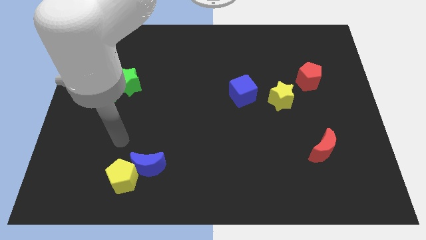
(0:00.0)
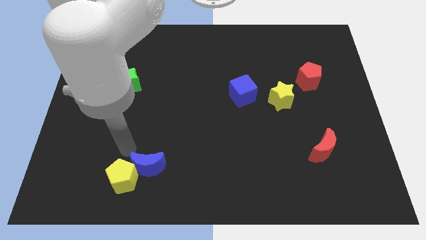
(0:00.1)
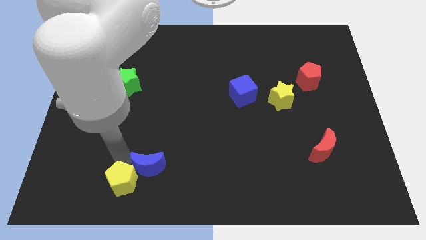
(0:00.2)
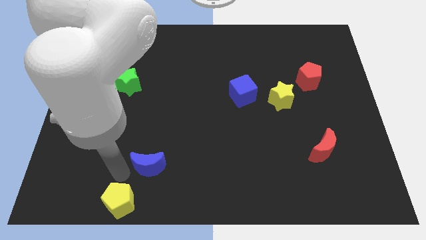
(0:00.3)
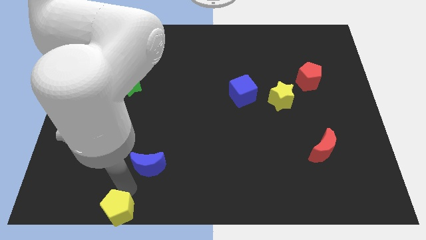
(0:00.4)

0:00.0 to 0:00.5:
pull the blue moon apart from the yellow pentagon

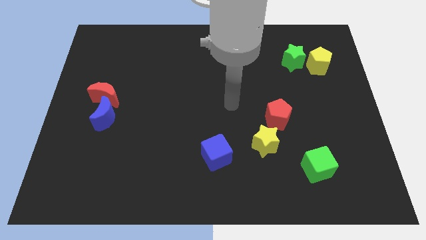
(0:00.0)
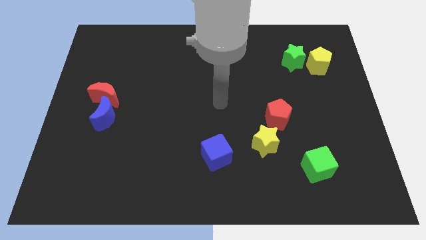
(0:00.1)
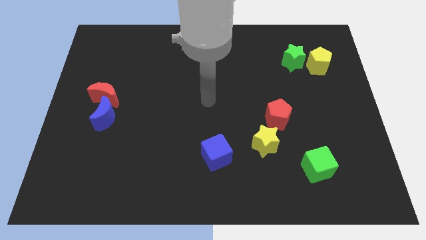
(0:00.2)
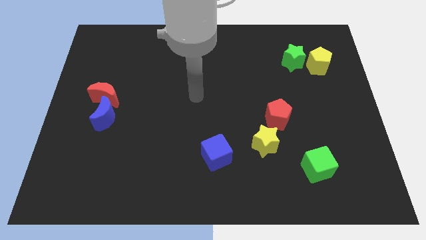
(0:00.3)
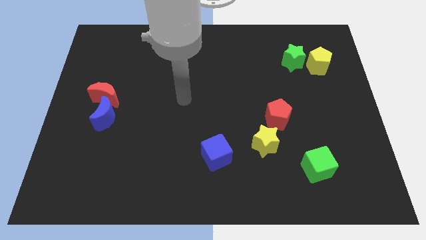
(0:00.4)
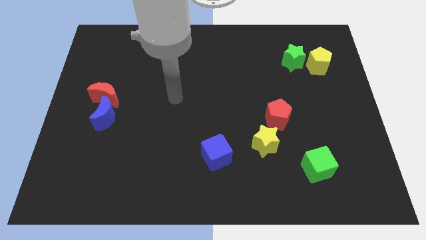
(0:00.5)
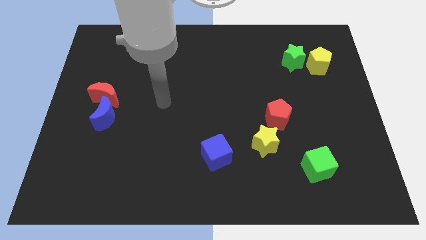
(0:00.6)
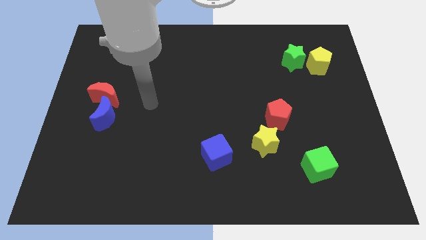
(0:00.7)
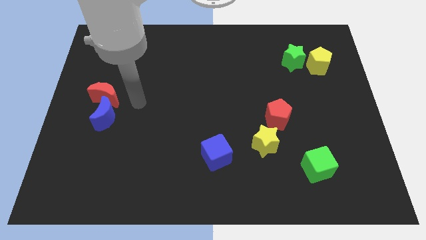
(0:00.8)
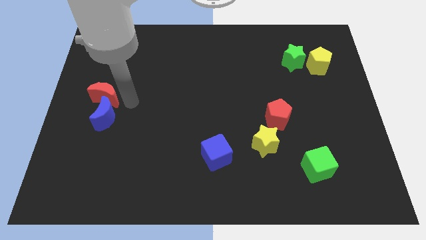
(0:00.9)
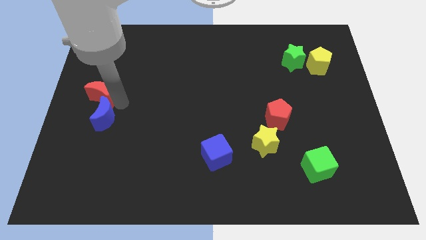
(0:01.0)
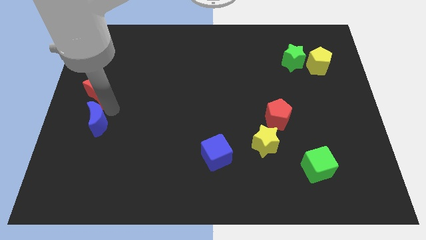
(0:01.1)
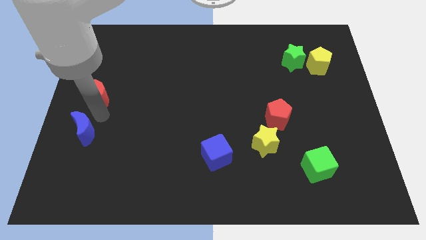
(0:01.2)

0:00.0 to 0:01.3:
pull the red moon apart from the blue moon

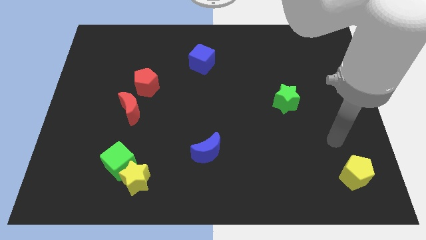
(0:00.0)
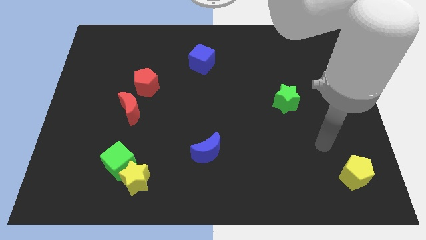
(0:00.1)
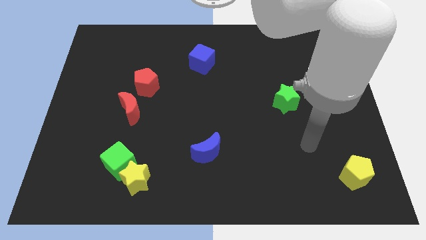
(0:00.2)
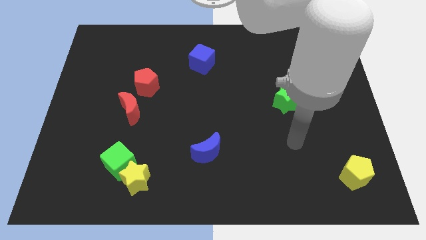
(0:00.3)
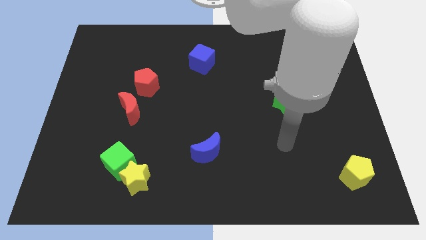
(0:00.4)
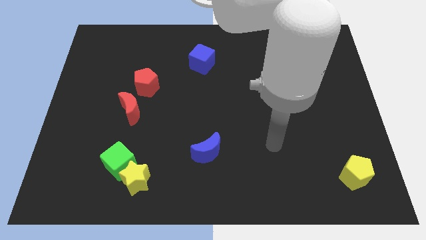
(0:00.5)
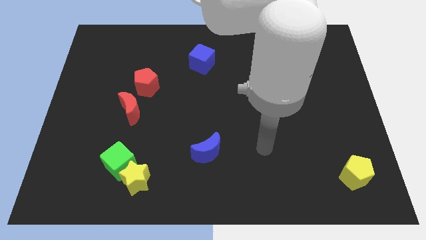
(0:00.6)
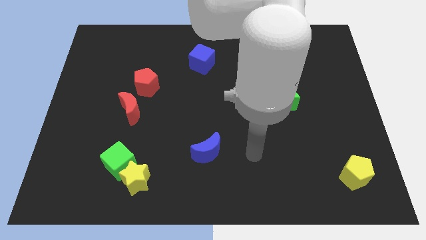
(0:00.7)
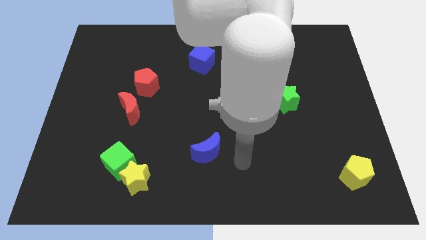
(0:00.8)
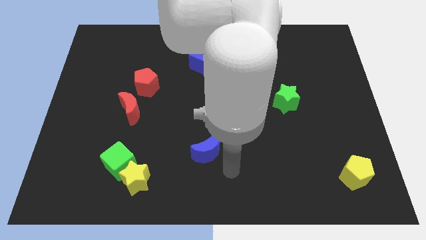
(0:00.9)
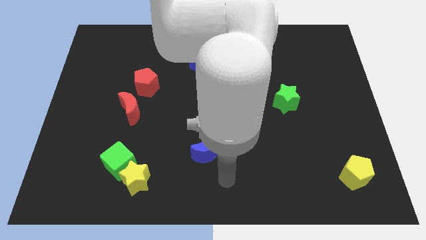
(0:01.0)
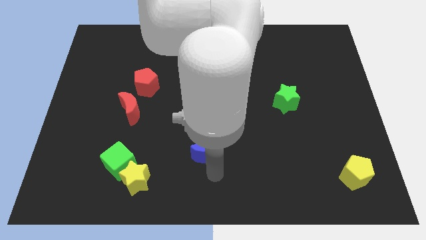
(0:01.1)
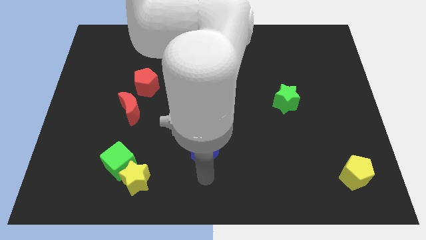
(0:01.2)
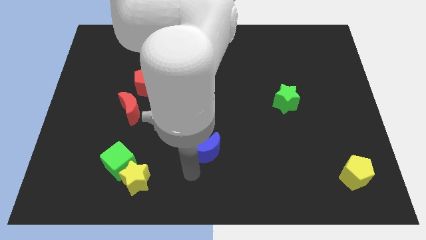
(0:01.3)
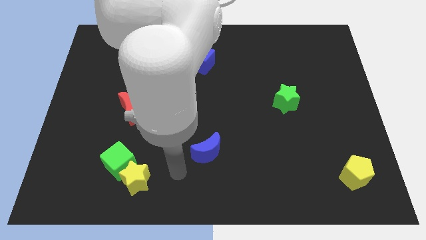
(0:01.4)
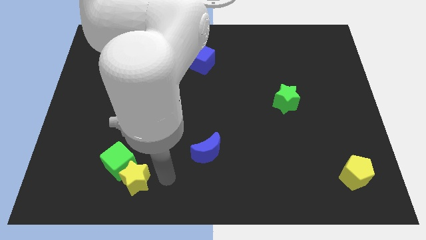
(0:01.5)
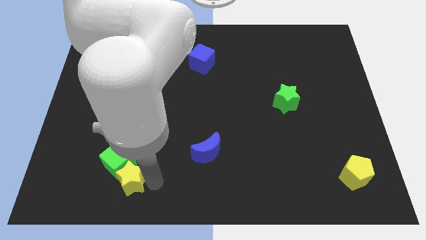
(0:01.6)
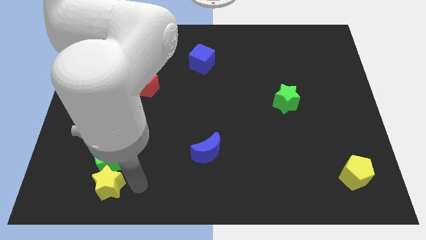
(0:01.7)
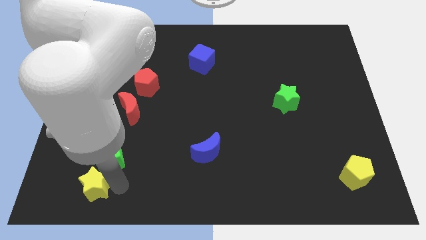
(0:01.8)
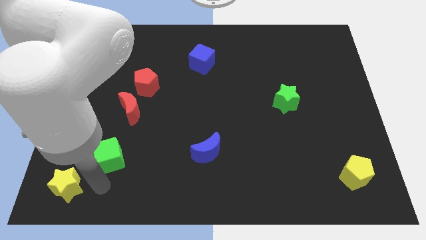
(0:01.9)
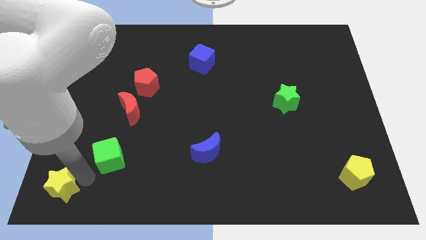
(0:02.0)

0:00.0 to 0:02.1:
move the green cube away from the yellow star

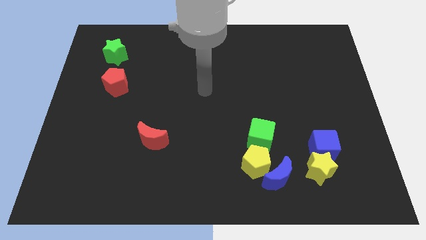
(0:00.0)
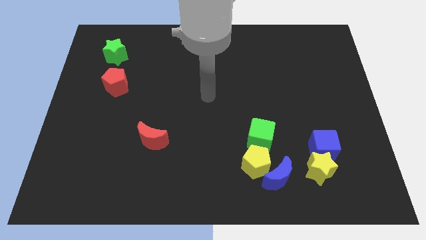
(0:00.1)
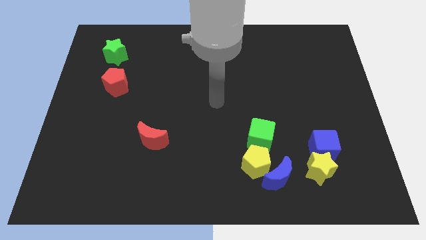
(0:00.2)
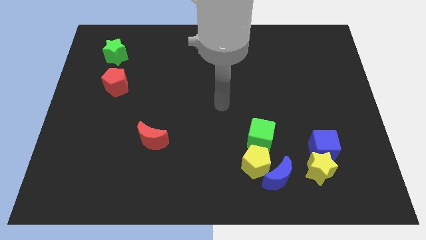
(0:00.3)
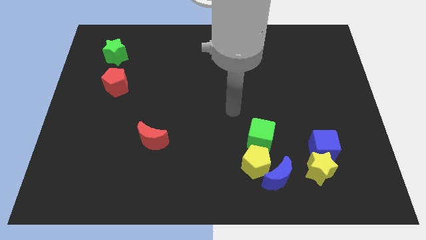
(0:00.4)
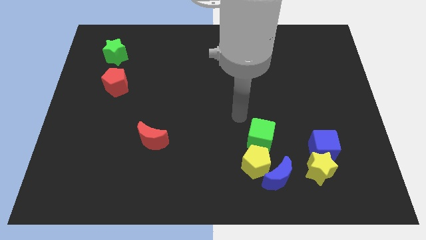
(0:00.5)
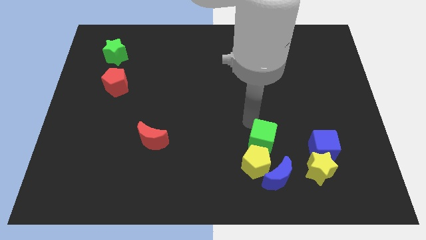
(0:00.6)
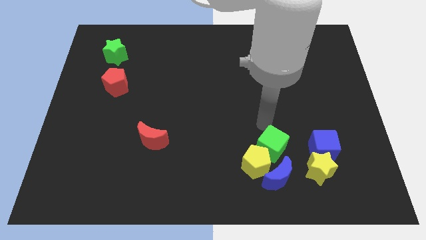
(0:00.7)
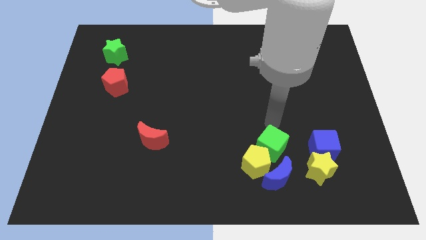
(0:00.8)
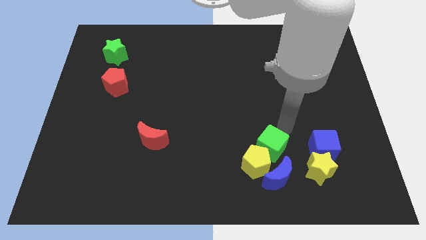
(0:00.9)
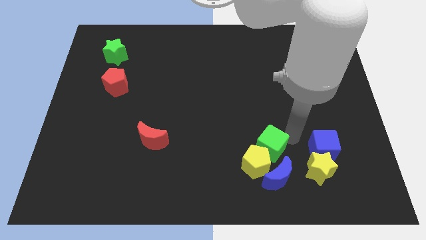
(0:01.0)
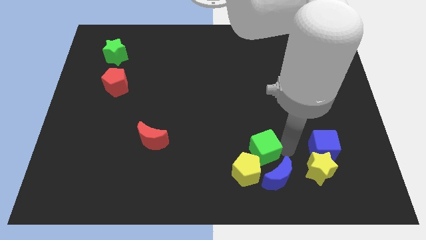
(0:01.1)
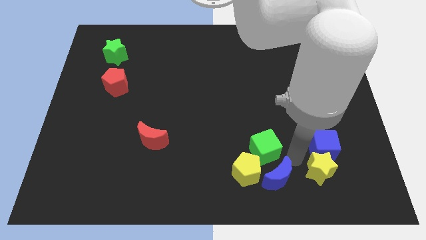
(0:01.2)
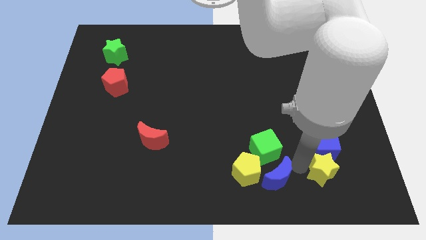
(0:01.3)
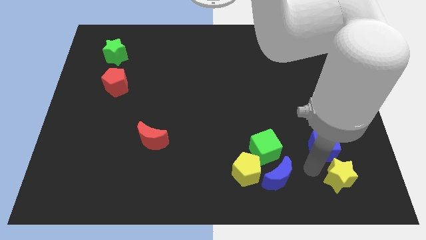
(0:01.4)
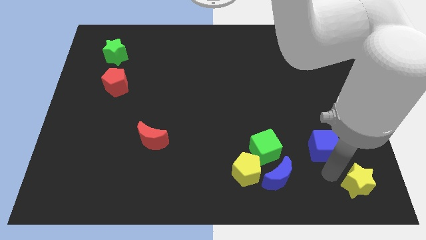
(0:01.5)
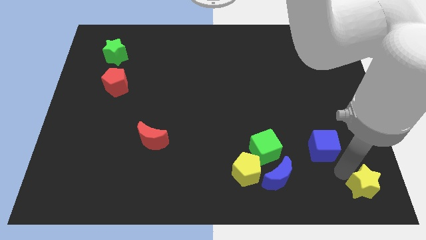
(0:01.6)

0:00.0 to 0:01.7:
separate the blue cube from the yellow star

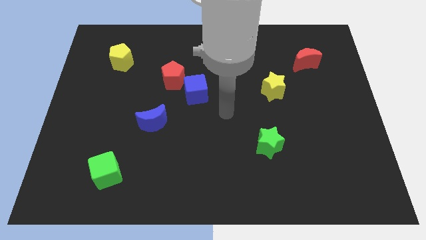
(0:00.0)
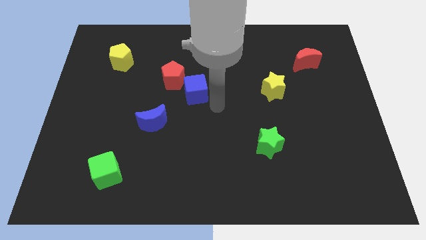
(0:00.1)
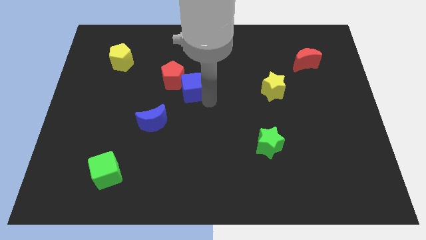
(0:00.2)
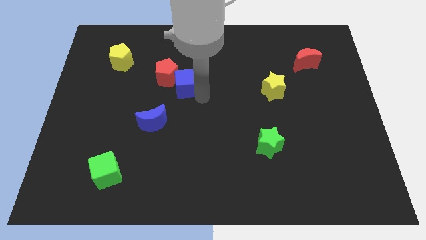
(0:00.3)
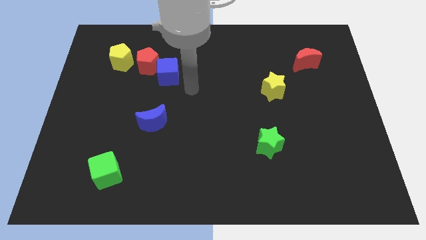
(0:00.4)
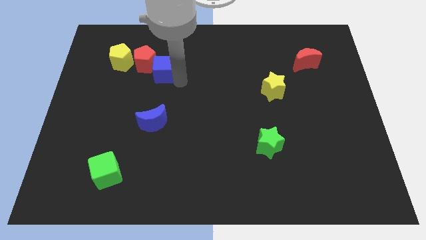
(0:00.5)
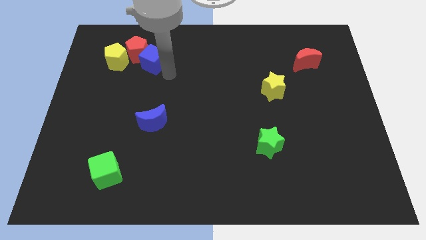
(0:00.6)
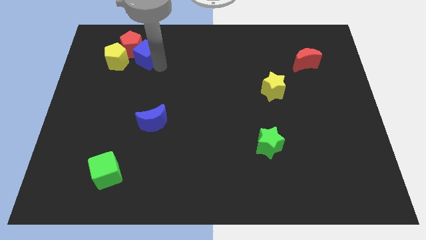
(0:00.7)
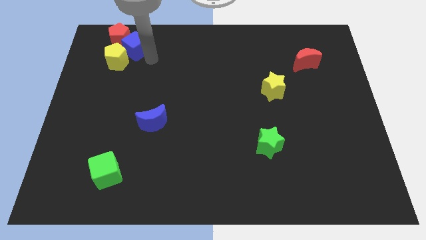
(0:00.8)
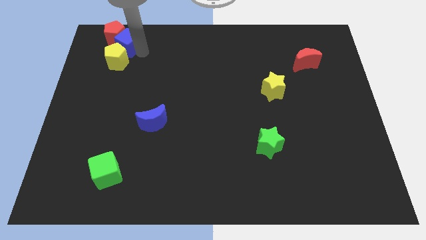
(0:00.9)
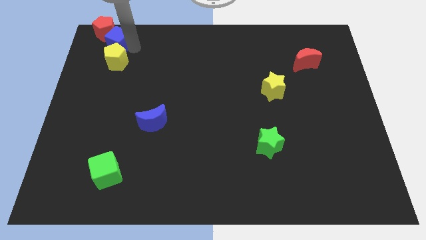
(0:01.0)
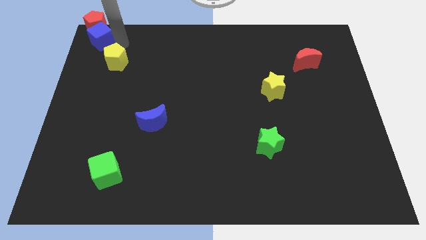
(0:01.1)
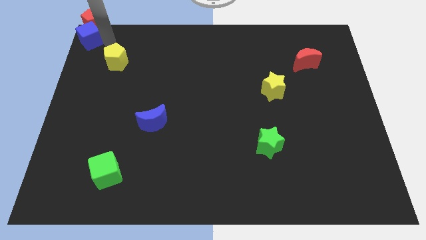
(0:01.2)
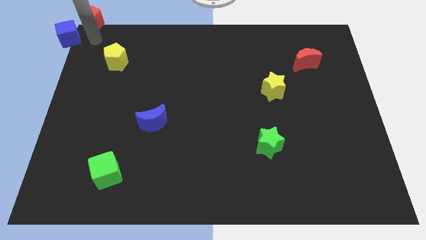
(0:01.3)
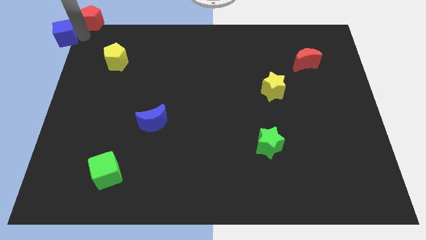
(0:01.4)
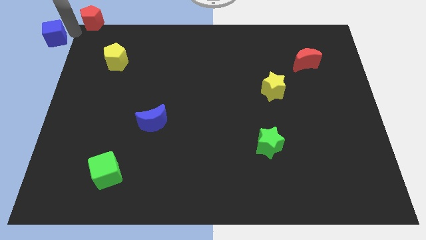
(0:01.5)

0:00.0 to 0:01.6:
separate the red pentagon from the blue cube

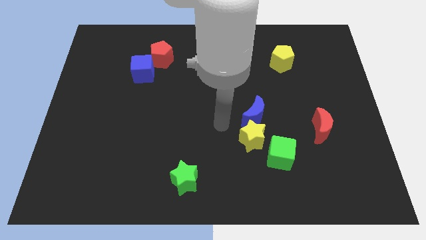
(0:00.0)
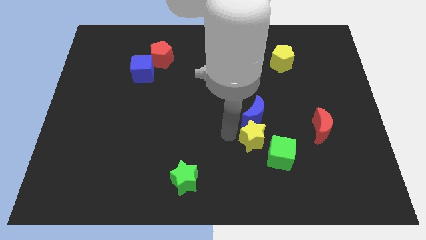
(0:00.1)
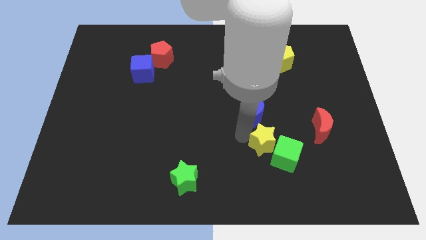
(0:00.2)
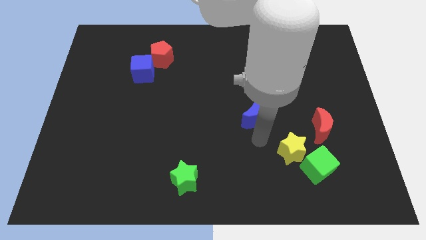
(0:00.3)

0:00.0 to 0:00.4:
pull the blue moon apart from the yellow star

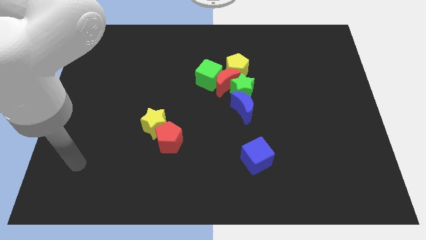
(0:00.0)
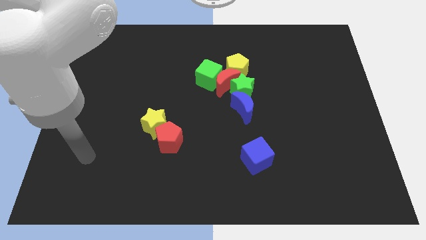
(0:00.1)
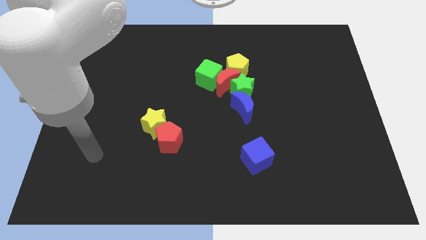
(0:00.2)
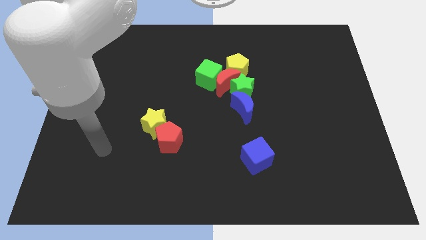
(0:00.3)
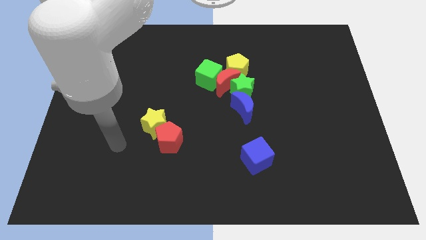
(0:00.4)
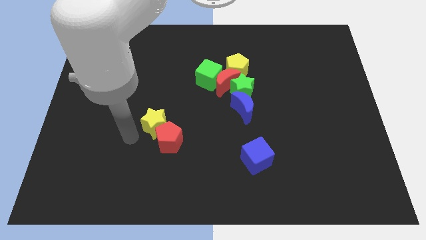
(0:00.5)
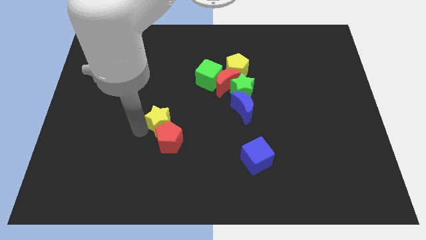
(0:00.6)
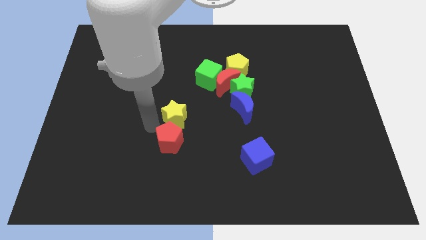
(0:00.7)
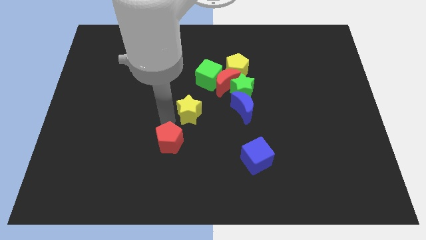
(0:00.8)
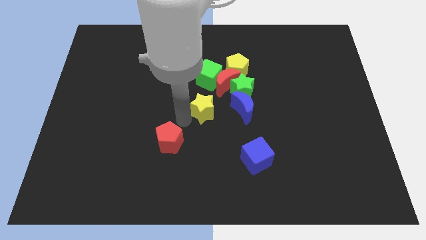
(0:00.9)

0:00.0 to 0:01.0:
pull the red pentagon apart from the yellow star

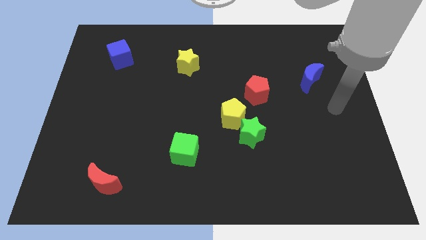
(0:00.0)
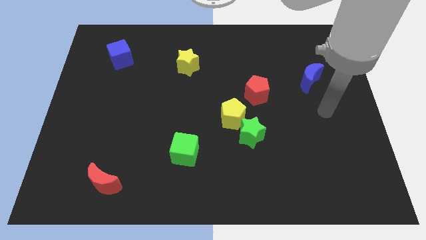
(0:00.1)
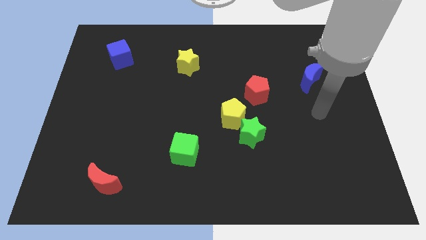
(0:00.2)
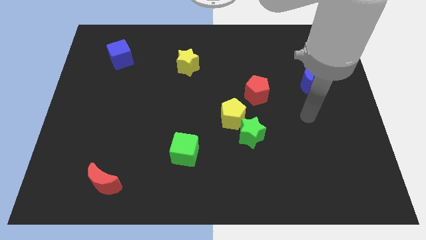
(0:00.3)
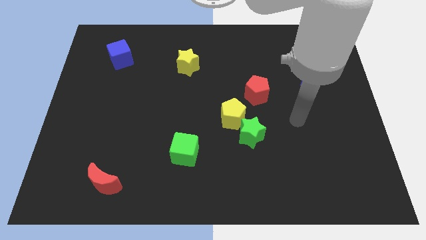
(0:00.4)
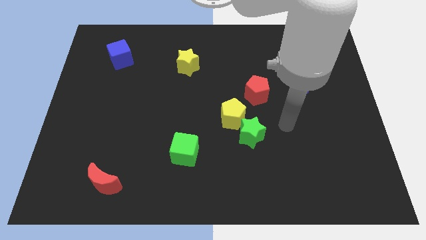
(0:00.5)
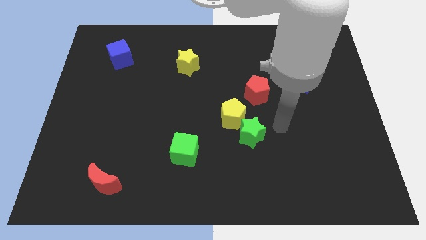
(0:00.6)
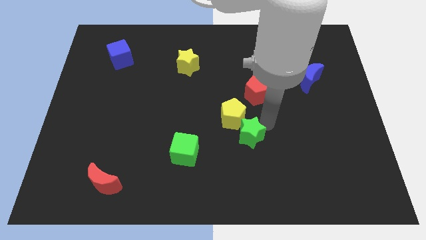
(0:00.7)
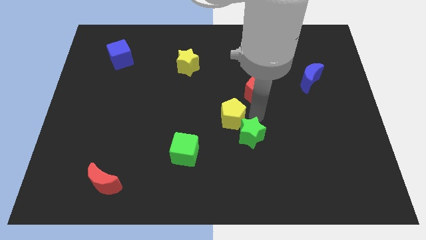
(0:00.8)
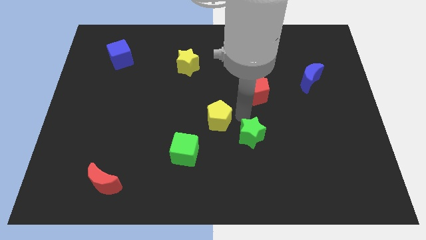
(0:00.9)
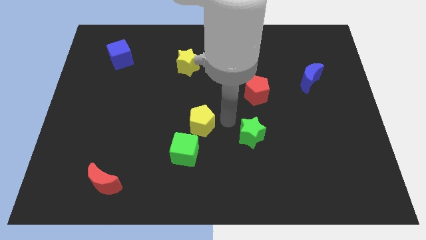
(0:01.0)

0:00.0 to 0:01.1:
move the green star away from the yellow pentagon
